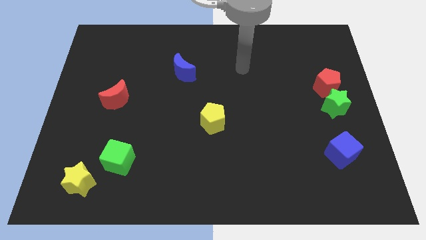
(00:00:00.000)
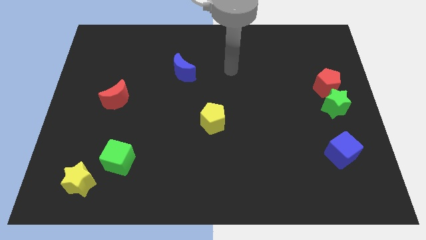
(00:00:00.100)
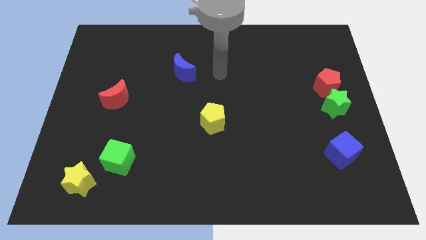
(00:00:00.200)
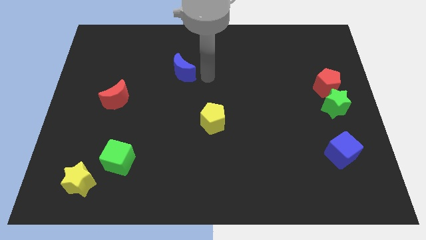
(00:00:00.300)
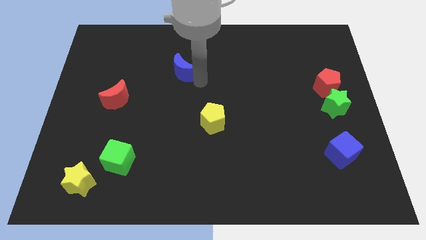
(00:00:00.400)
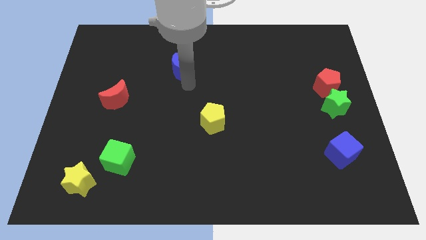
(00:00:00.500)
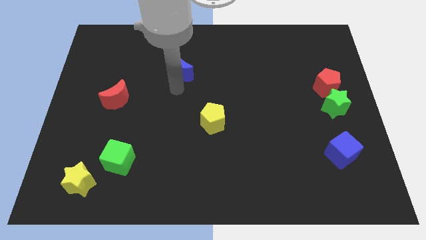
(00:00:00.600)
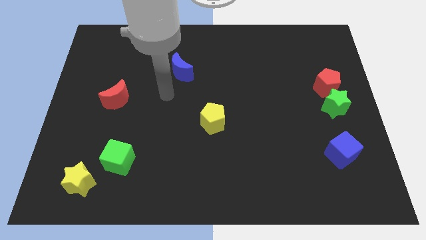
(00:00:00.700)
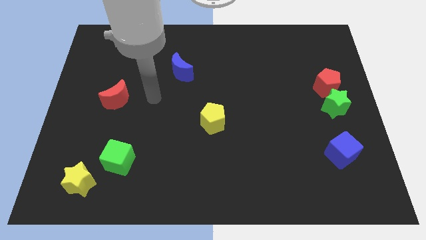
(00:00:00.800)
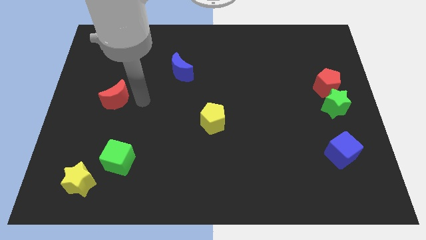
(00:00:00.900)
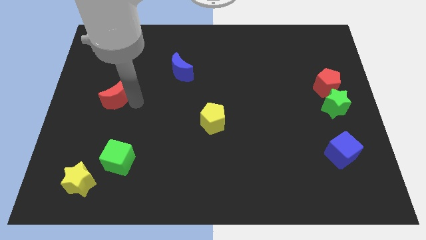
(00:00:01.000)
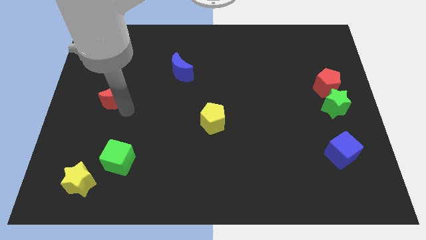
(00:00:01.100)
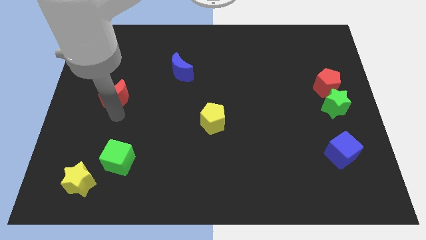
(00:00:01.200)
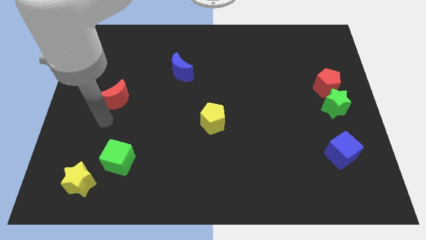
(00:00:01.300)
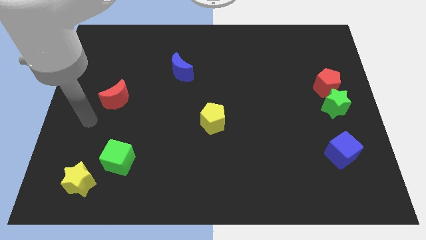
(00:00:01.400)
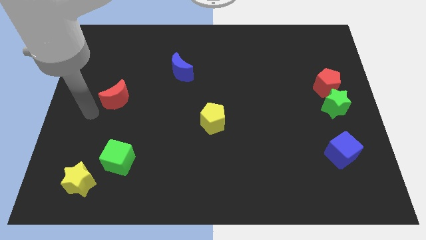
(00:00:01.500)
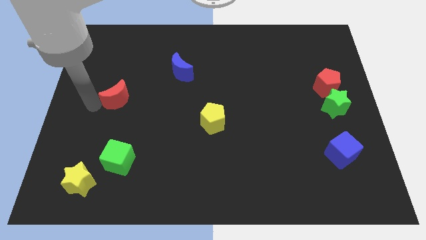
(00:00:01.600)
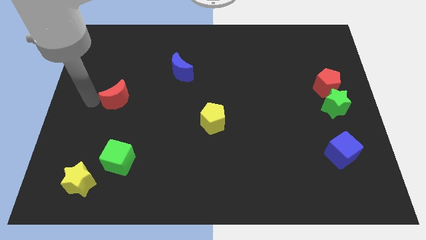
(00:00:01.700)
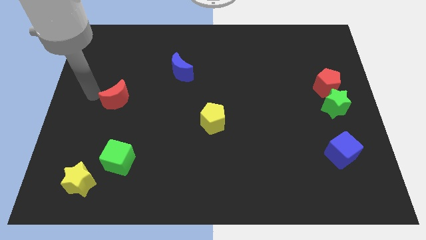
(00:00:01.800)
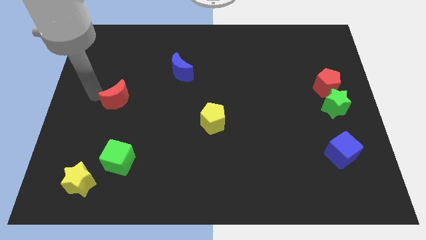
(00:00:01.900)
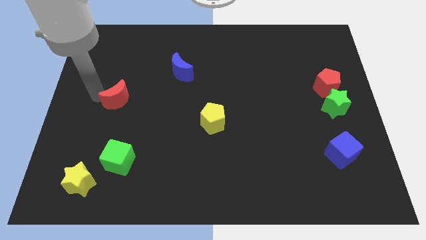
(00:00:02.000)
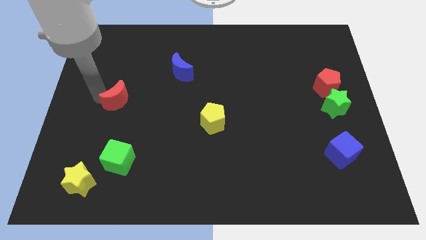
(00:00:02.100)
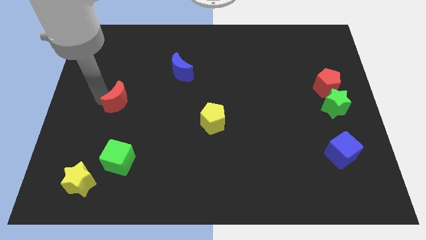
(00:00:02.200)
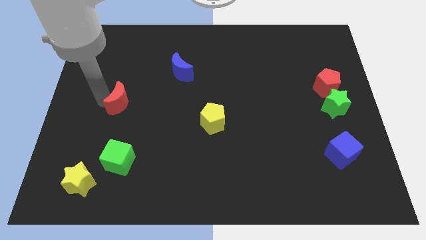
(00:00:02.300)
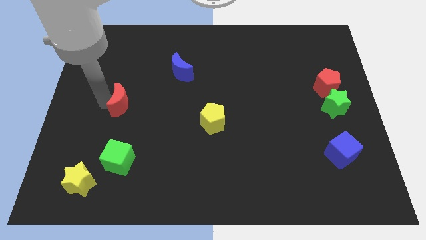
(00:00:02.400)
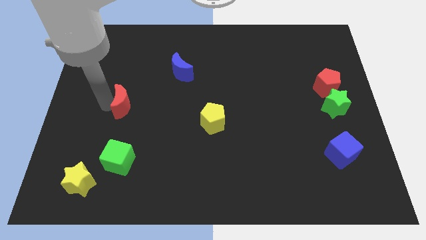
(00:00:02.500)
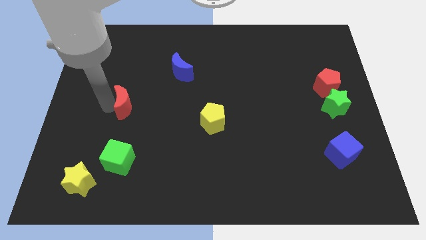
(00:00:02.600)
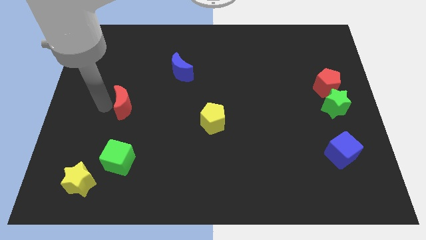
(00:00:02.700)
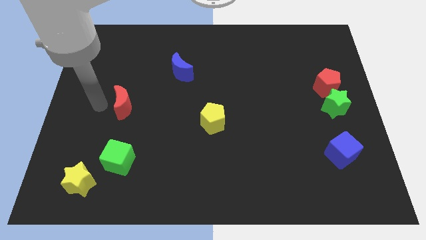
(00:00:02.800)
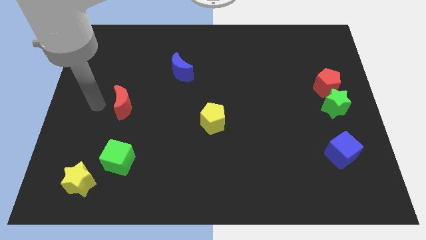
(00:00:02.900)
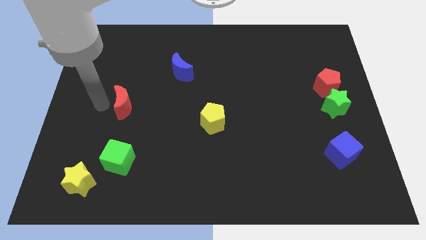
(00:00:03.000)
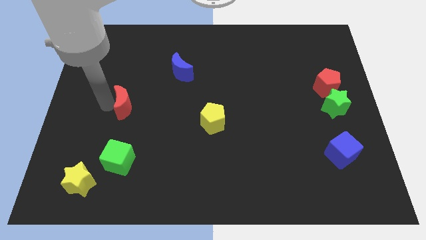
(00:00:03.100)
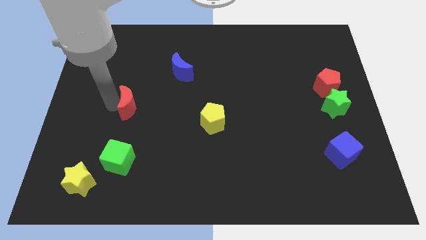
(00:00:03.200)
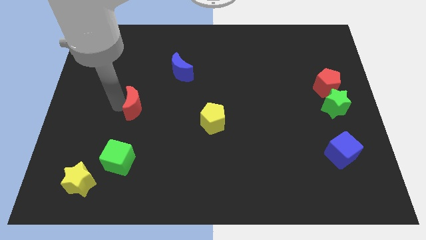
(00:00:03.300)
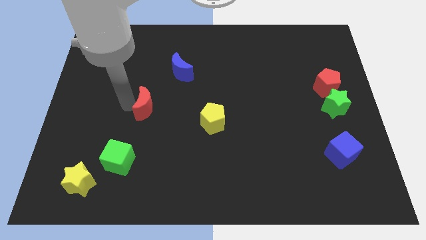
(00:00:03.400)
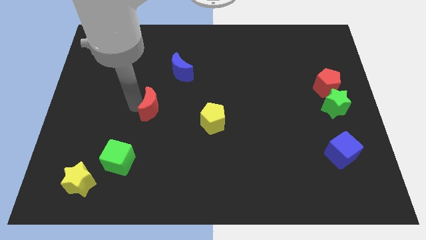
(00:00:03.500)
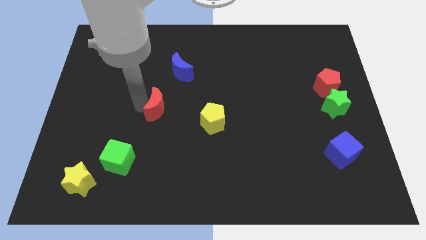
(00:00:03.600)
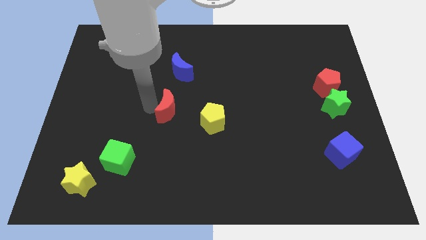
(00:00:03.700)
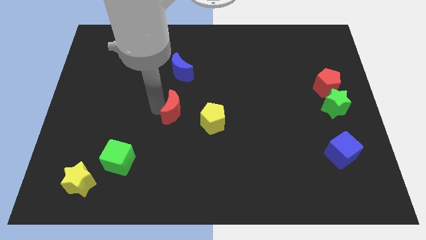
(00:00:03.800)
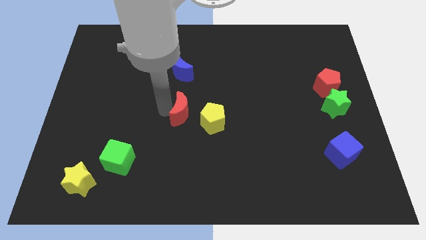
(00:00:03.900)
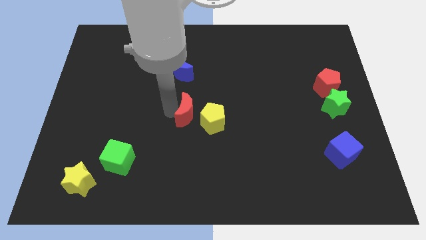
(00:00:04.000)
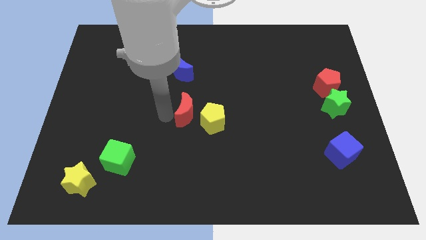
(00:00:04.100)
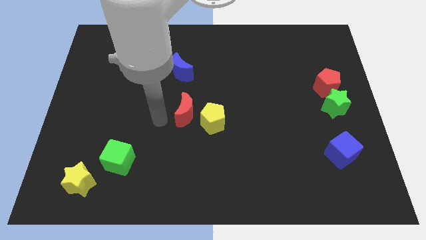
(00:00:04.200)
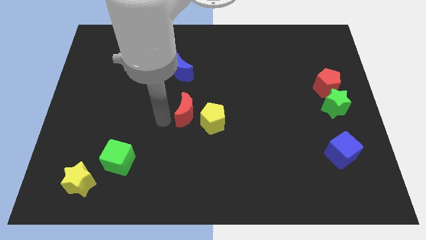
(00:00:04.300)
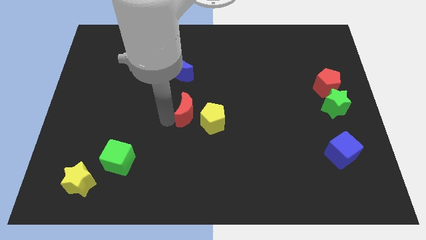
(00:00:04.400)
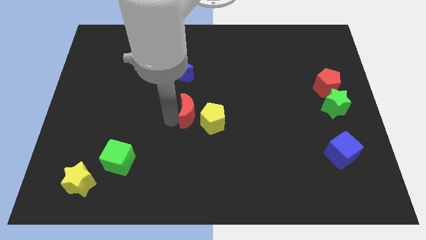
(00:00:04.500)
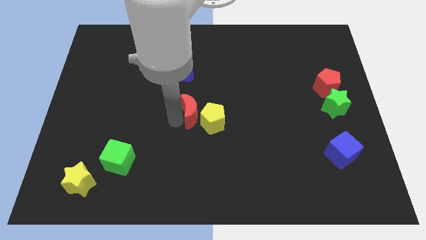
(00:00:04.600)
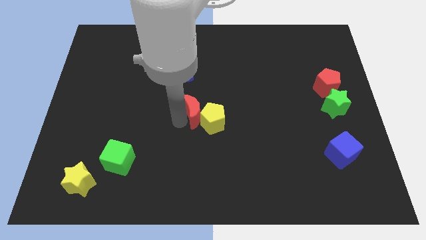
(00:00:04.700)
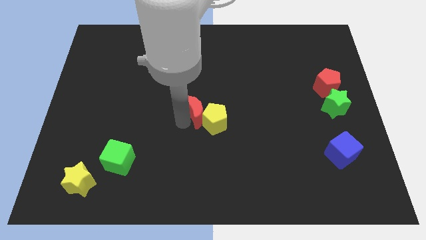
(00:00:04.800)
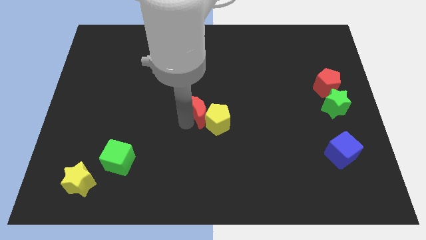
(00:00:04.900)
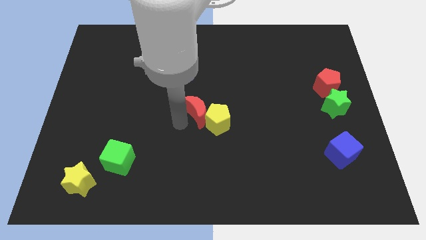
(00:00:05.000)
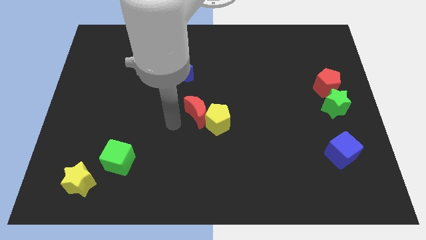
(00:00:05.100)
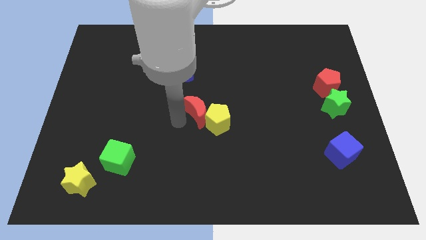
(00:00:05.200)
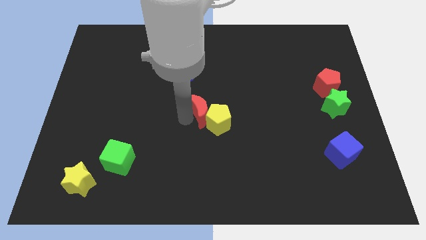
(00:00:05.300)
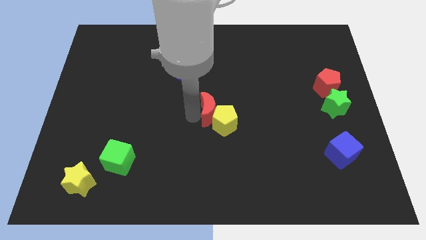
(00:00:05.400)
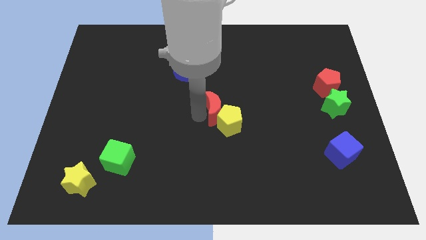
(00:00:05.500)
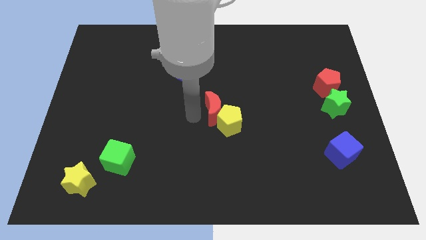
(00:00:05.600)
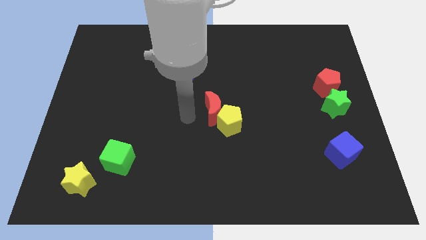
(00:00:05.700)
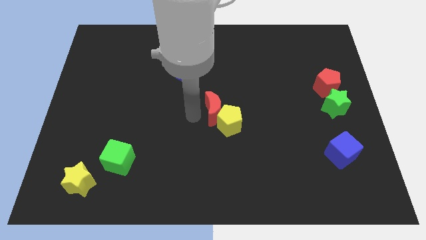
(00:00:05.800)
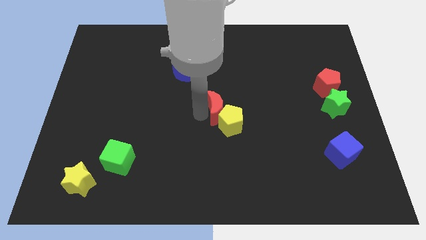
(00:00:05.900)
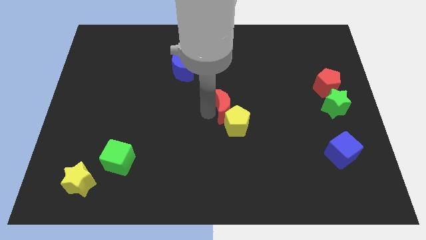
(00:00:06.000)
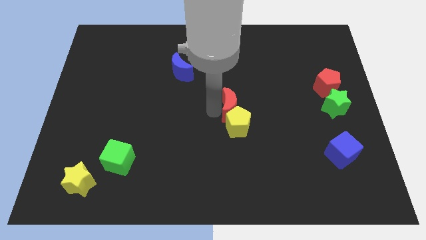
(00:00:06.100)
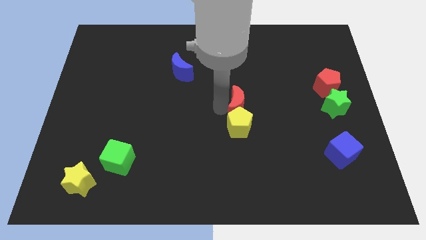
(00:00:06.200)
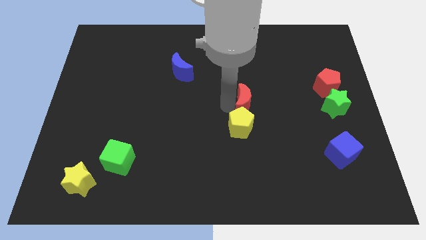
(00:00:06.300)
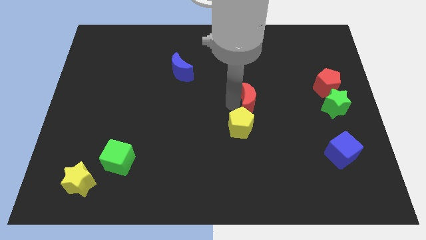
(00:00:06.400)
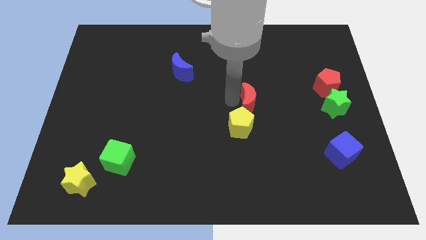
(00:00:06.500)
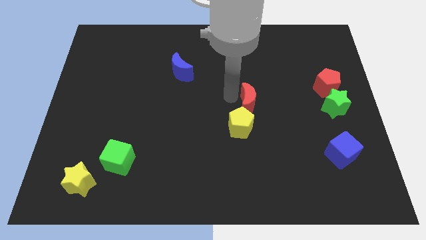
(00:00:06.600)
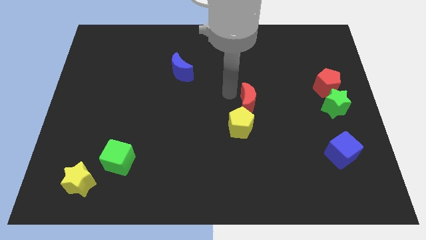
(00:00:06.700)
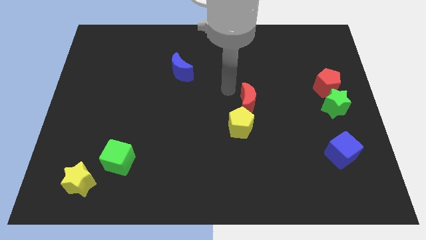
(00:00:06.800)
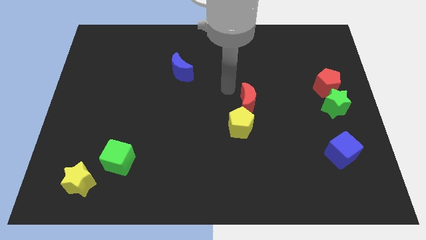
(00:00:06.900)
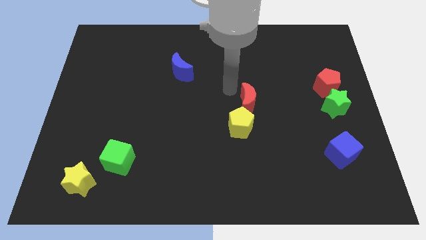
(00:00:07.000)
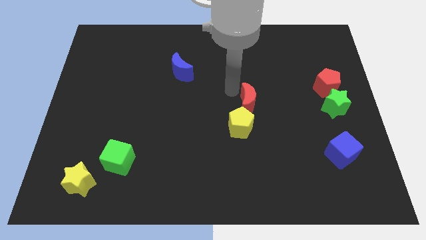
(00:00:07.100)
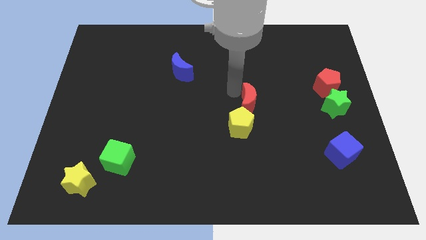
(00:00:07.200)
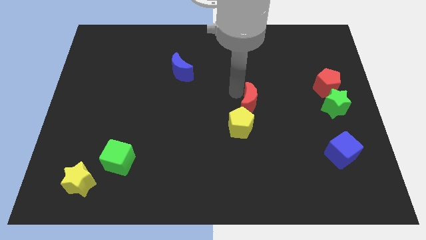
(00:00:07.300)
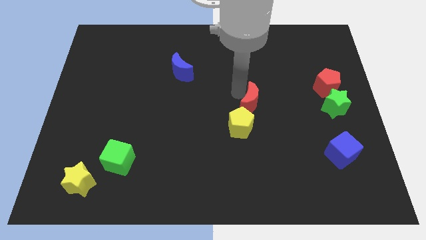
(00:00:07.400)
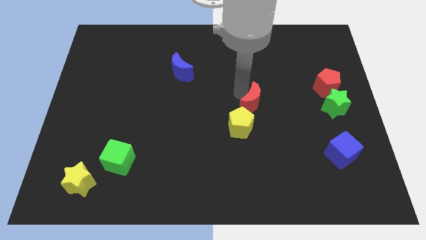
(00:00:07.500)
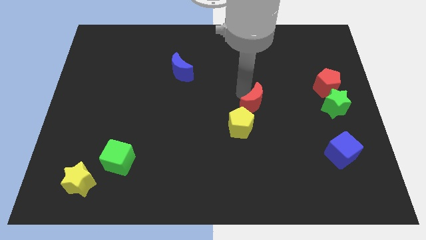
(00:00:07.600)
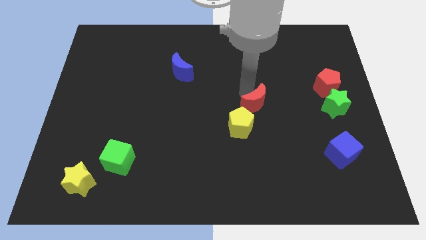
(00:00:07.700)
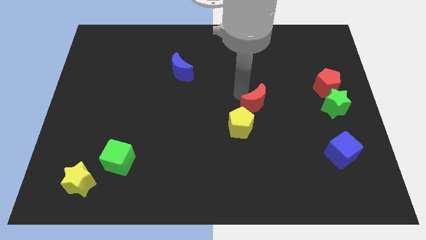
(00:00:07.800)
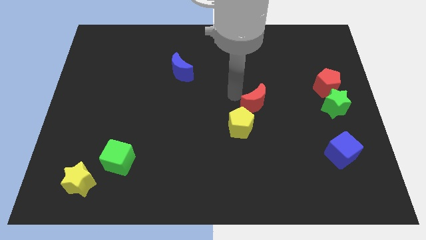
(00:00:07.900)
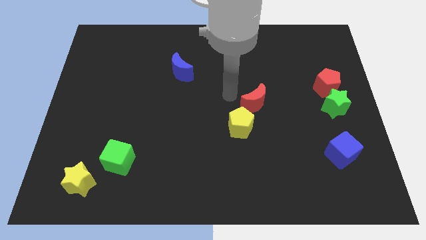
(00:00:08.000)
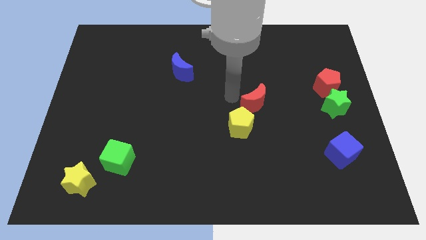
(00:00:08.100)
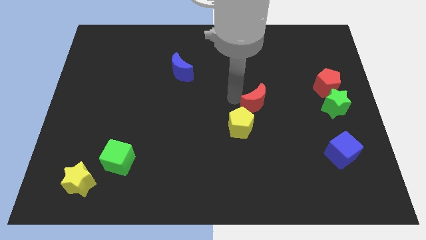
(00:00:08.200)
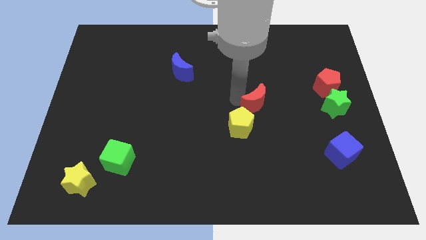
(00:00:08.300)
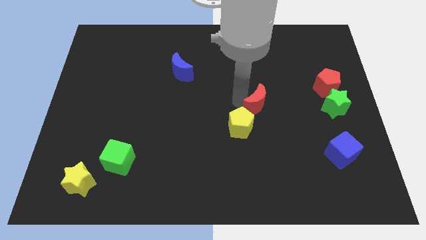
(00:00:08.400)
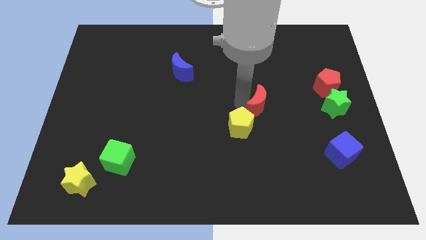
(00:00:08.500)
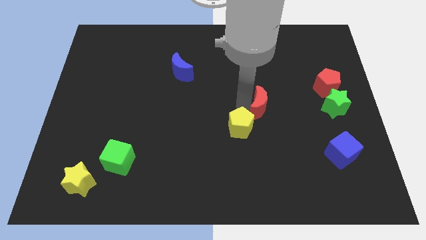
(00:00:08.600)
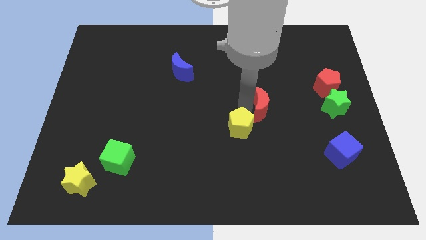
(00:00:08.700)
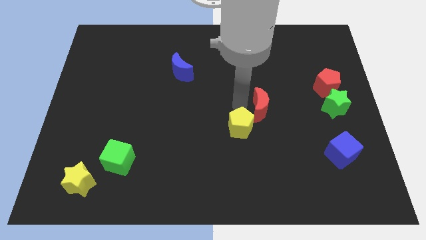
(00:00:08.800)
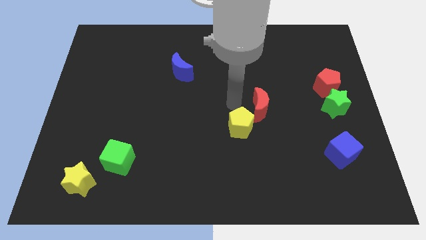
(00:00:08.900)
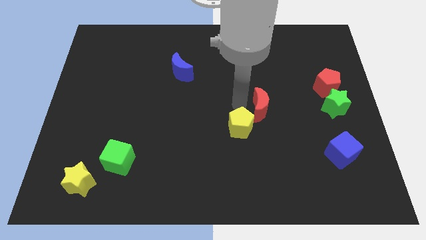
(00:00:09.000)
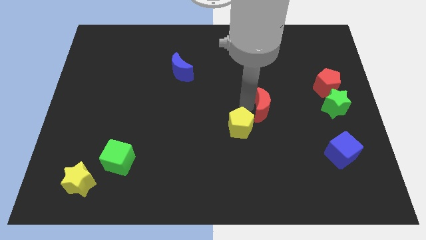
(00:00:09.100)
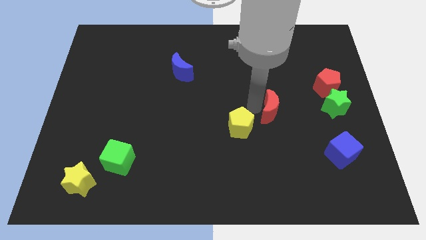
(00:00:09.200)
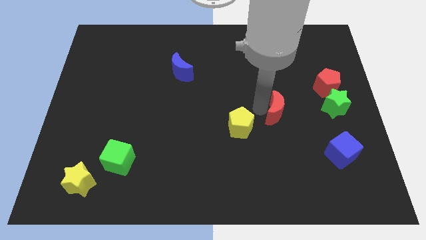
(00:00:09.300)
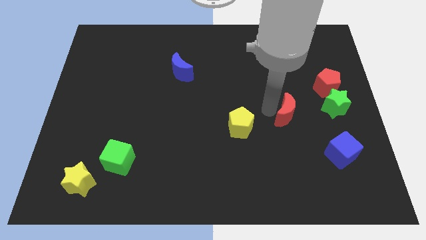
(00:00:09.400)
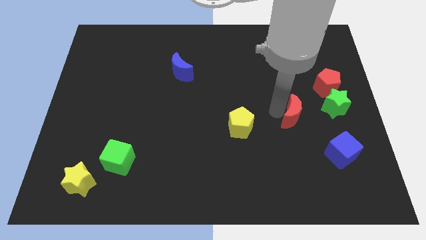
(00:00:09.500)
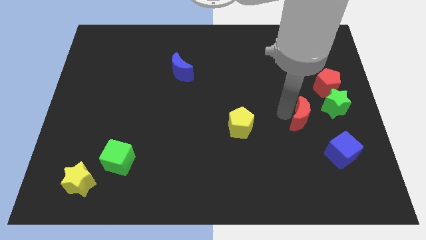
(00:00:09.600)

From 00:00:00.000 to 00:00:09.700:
slide the red moon to the bottom left side of the green star
